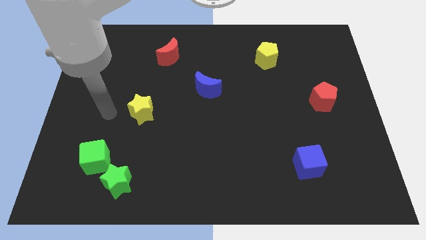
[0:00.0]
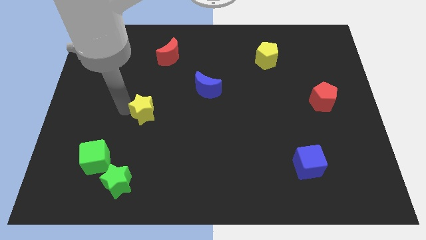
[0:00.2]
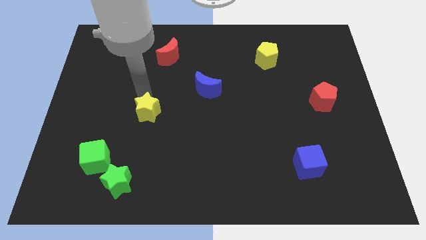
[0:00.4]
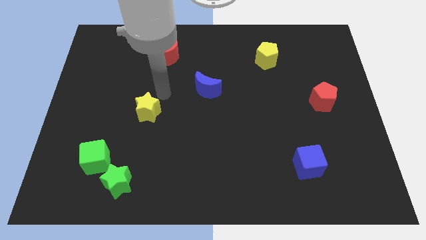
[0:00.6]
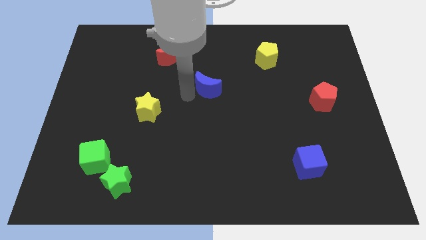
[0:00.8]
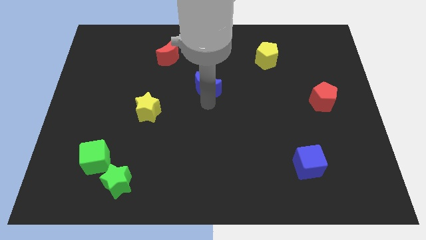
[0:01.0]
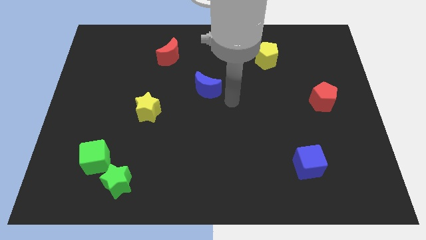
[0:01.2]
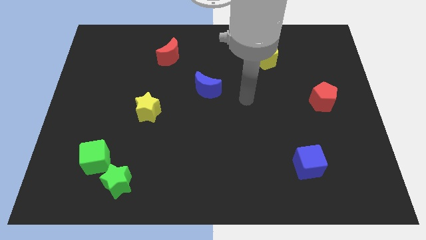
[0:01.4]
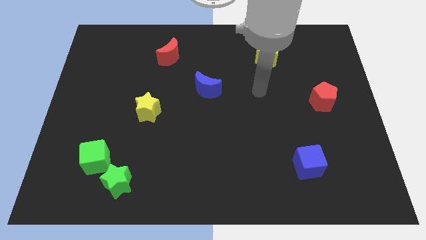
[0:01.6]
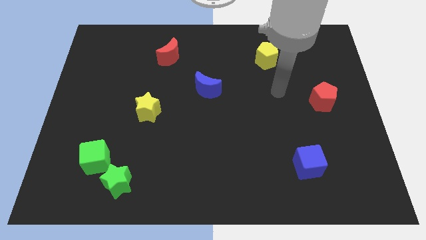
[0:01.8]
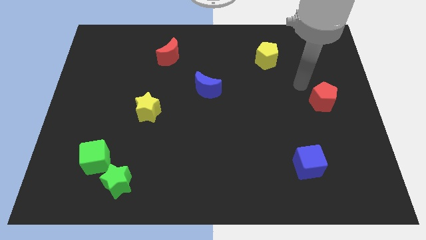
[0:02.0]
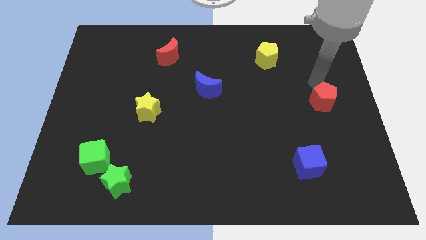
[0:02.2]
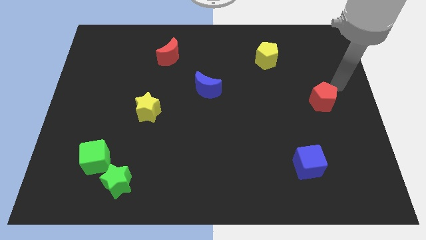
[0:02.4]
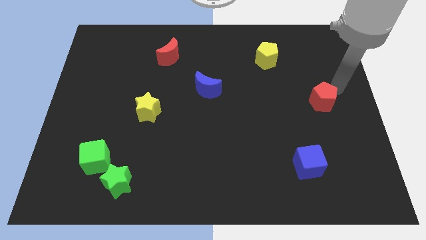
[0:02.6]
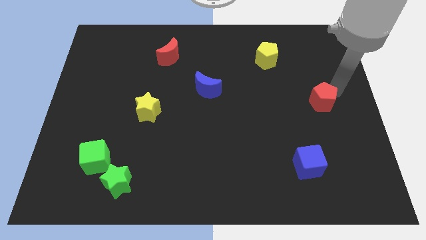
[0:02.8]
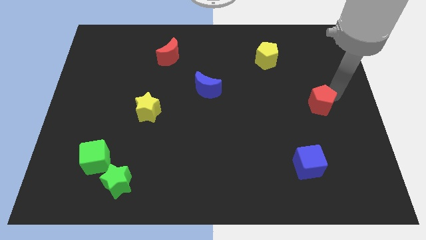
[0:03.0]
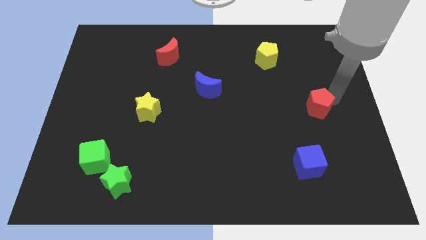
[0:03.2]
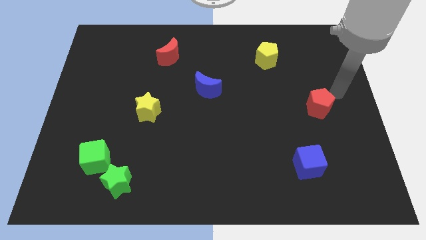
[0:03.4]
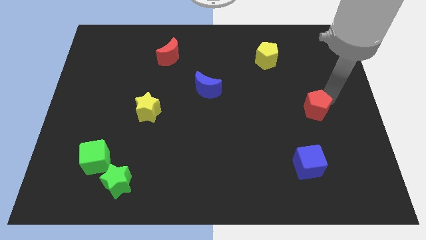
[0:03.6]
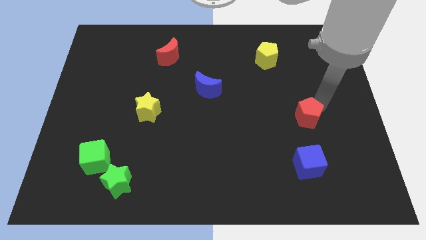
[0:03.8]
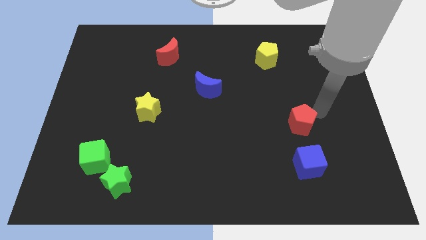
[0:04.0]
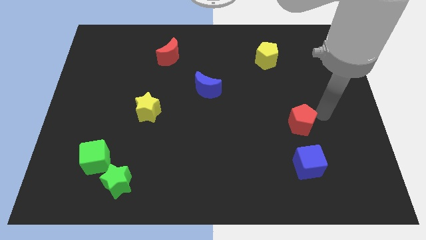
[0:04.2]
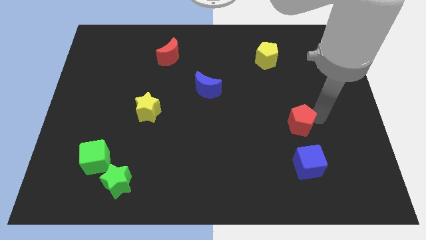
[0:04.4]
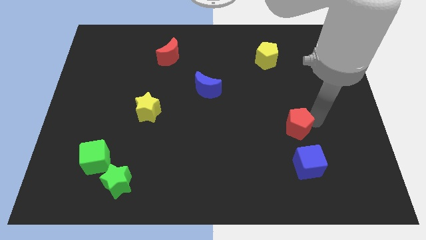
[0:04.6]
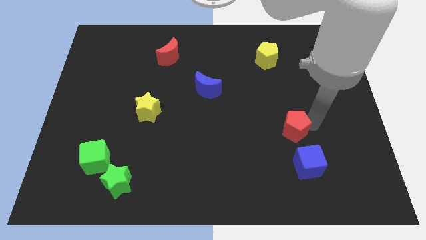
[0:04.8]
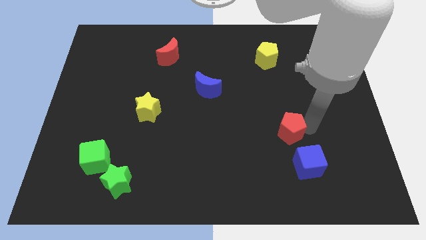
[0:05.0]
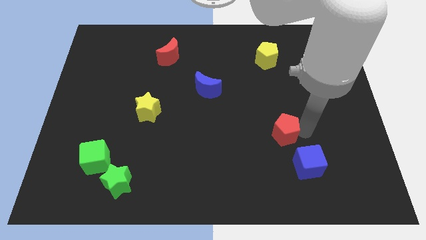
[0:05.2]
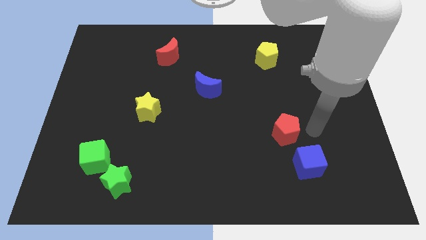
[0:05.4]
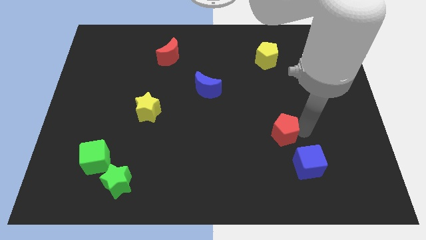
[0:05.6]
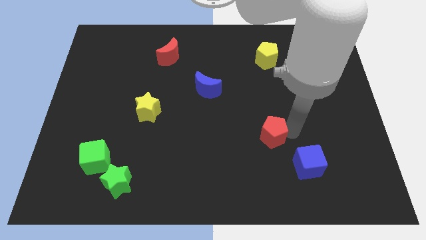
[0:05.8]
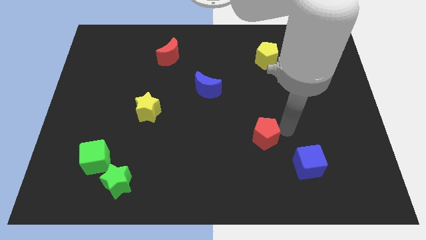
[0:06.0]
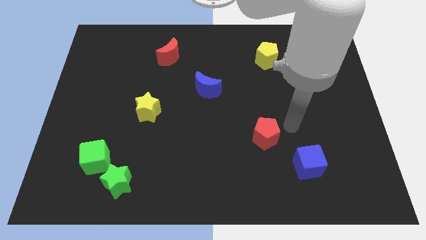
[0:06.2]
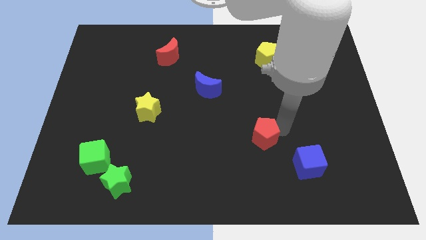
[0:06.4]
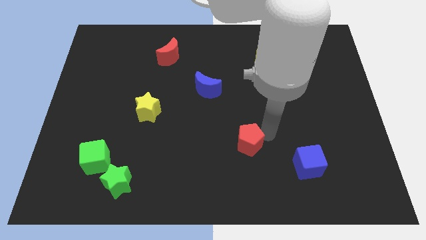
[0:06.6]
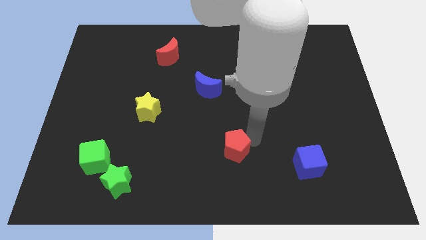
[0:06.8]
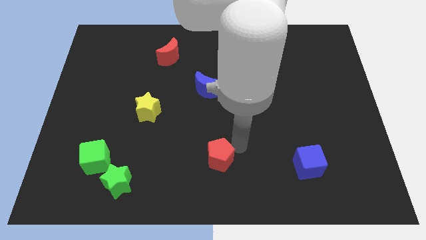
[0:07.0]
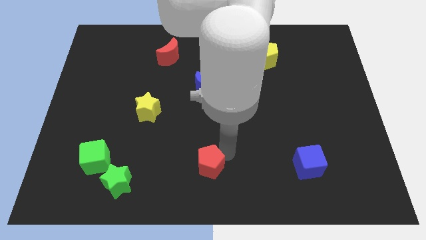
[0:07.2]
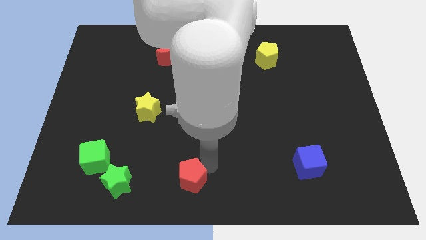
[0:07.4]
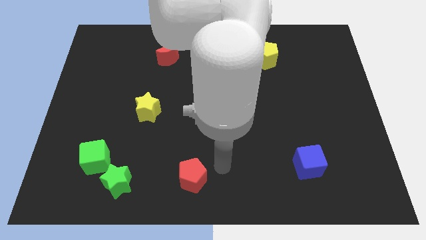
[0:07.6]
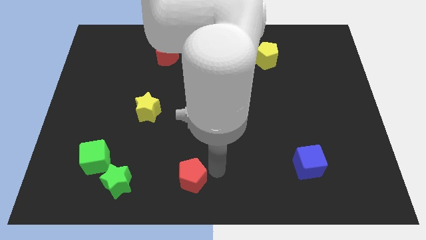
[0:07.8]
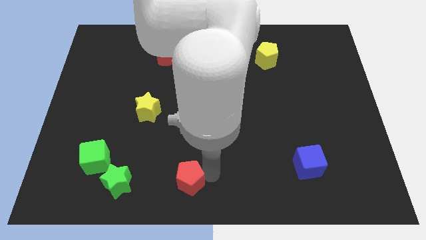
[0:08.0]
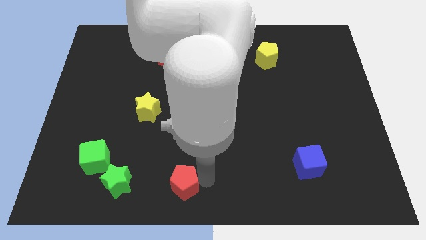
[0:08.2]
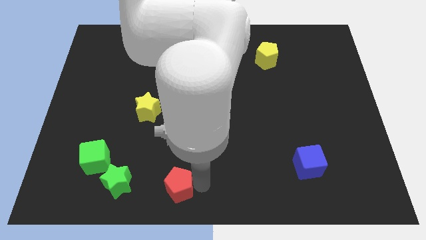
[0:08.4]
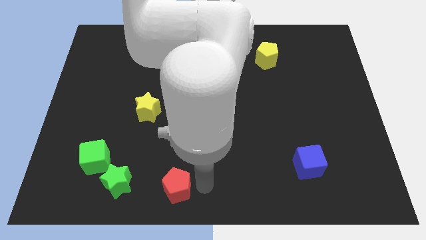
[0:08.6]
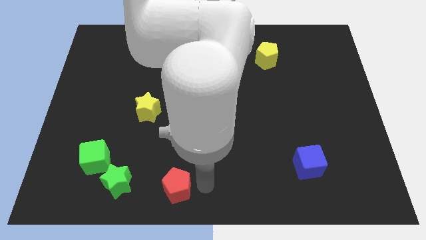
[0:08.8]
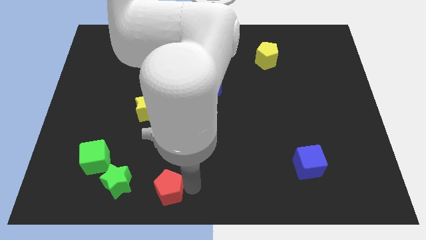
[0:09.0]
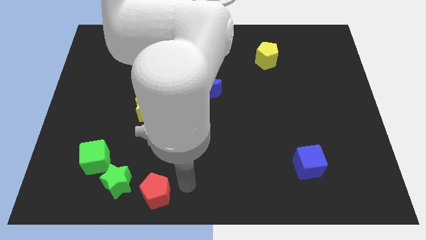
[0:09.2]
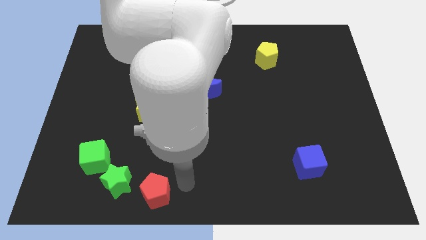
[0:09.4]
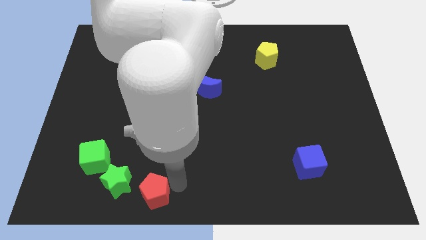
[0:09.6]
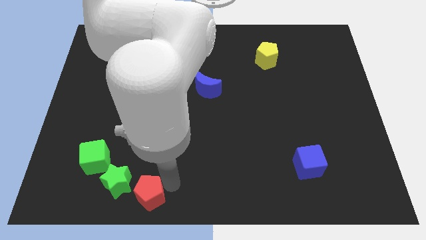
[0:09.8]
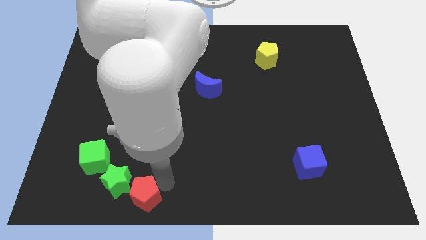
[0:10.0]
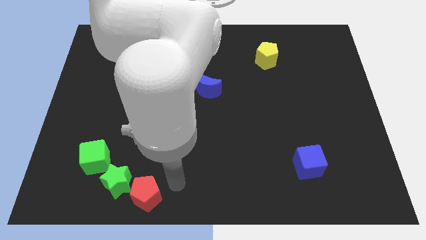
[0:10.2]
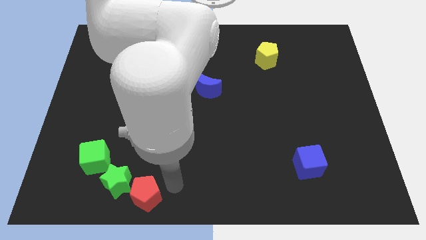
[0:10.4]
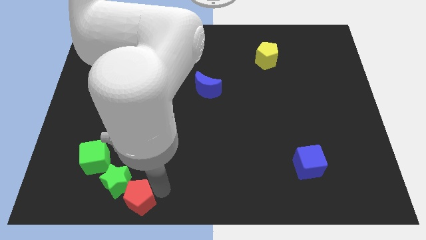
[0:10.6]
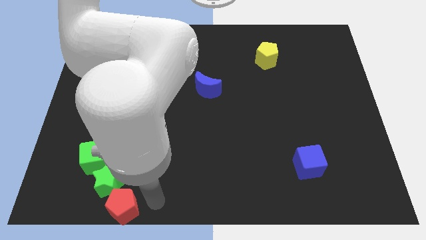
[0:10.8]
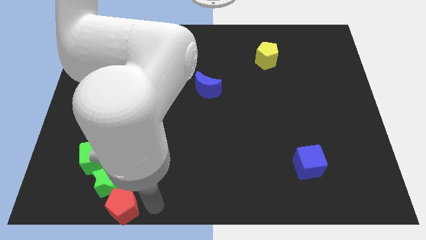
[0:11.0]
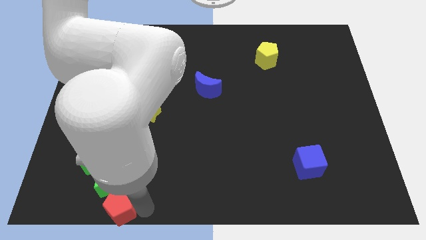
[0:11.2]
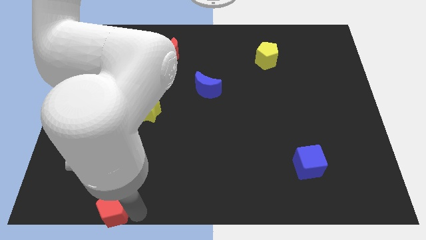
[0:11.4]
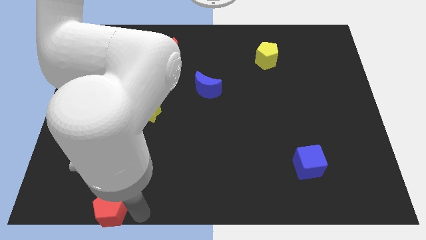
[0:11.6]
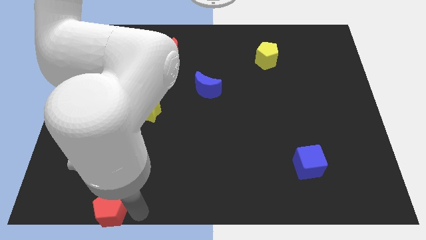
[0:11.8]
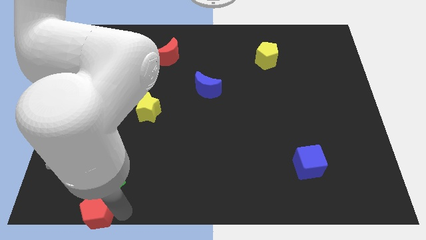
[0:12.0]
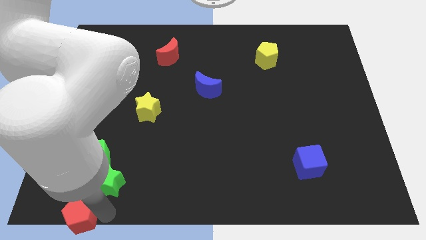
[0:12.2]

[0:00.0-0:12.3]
move the red pentagon to the bottom left of the board

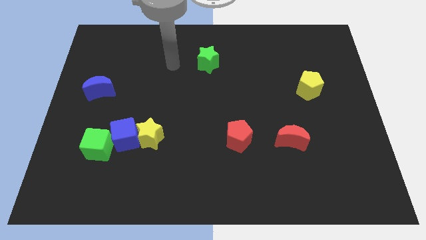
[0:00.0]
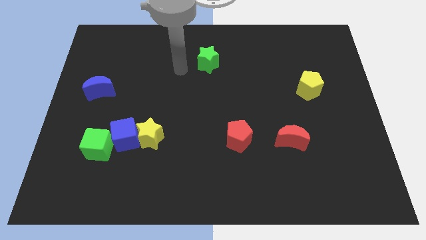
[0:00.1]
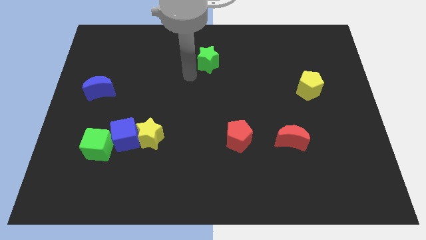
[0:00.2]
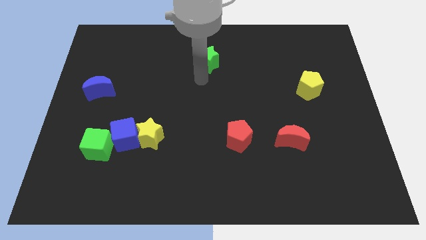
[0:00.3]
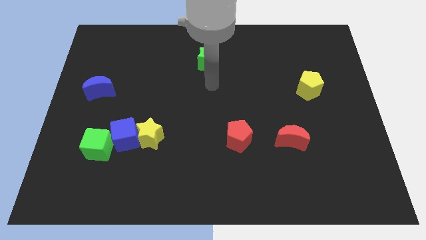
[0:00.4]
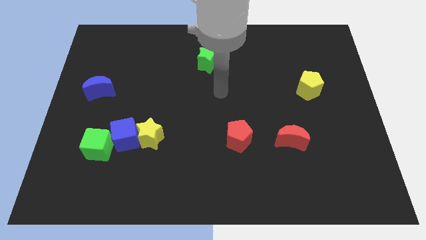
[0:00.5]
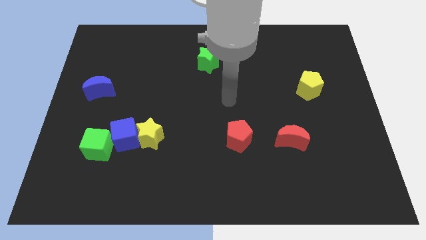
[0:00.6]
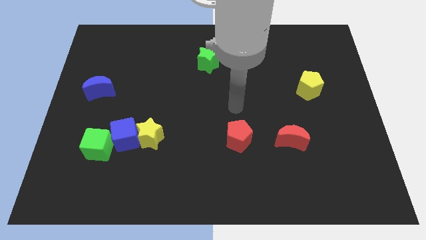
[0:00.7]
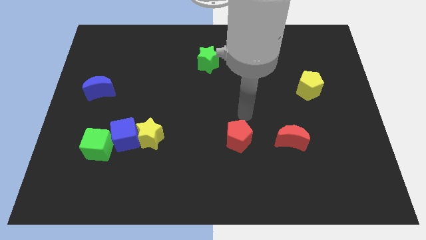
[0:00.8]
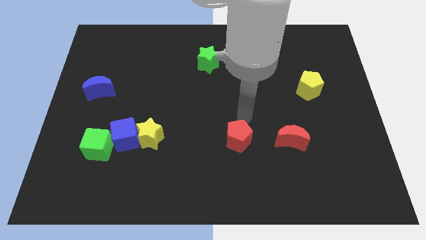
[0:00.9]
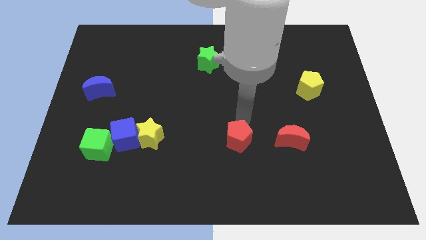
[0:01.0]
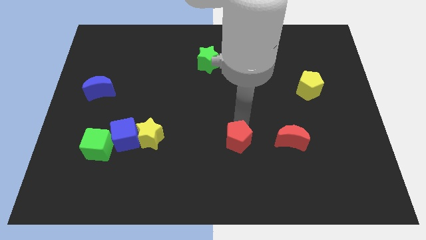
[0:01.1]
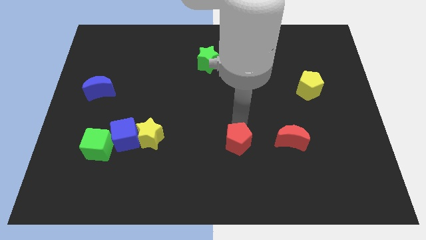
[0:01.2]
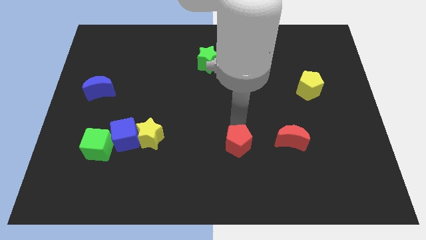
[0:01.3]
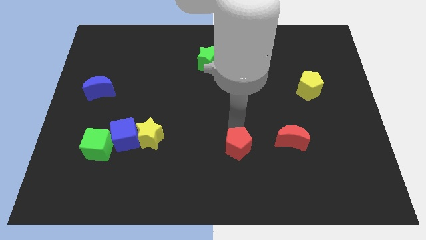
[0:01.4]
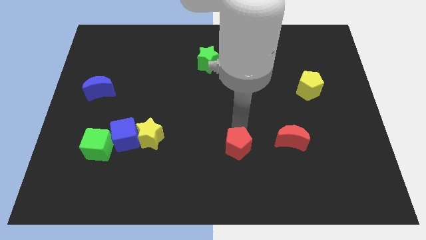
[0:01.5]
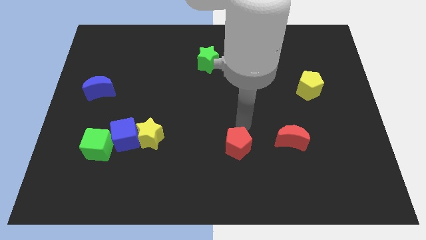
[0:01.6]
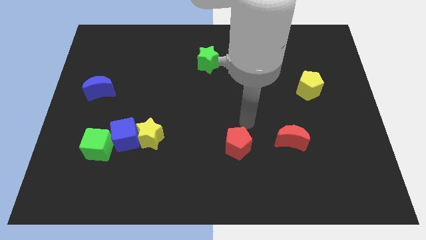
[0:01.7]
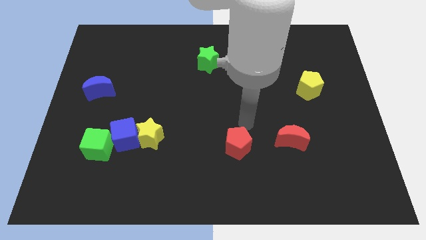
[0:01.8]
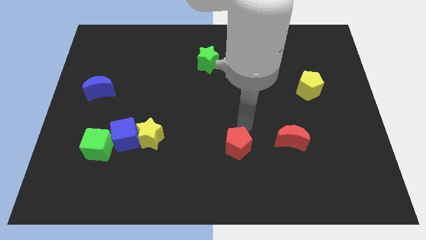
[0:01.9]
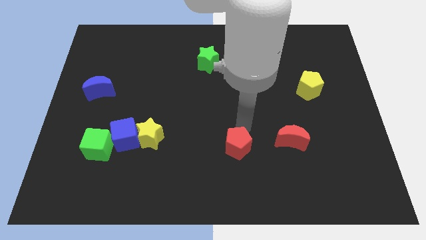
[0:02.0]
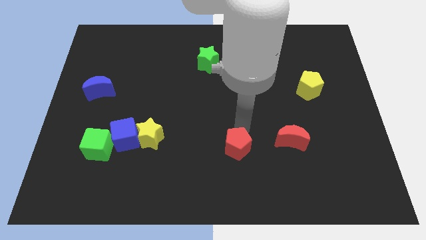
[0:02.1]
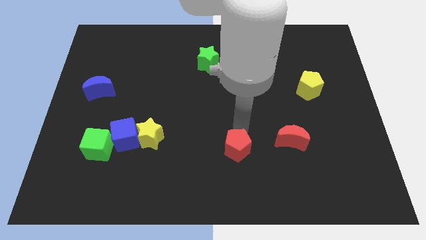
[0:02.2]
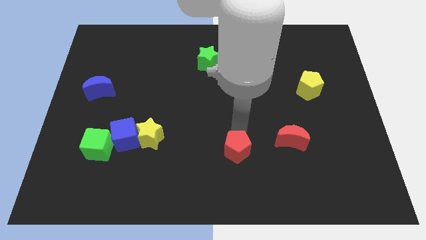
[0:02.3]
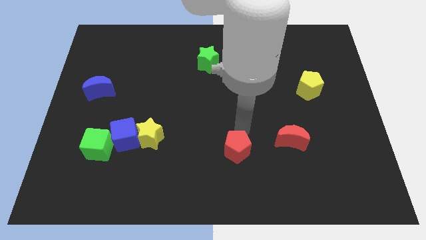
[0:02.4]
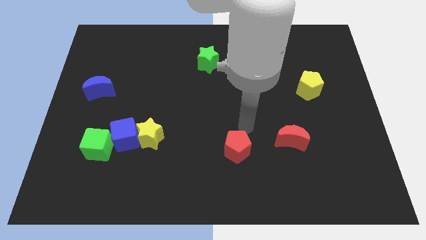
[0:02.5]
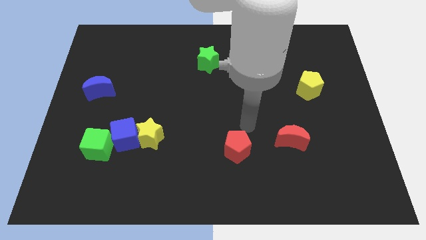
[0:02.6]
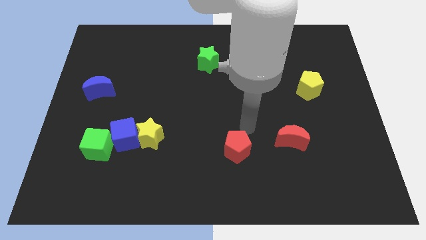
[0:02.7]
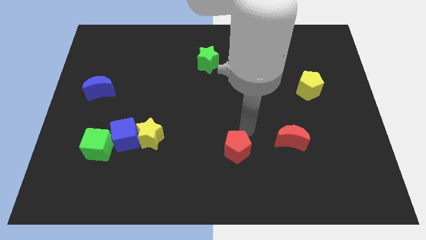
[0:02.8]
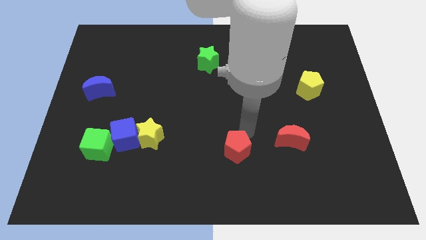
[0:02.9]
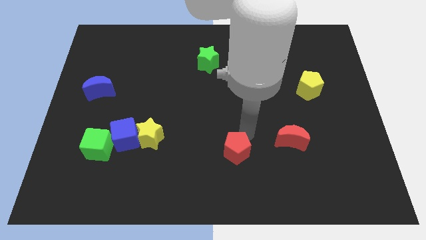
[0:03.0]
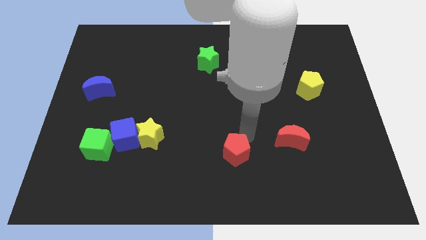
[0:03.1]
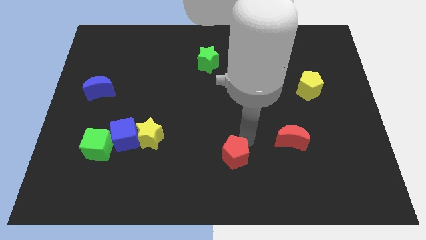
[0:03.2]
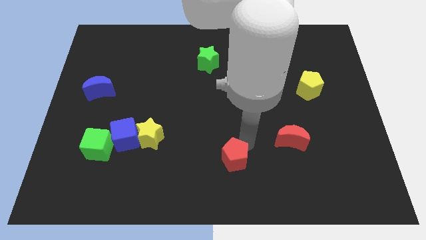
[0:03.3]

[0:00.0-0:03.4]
put the red pentagon to the bottom side
